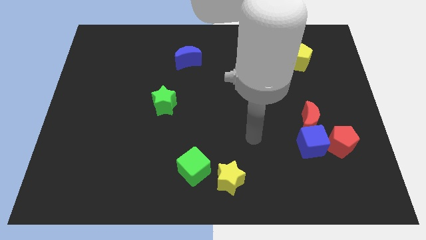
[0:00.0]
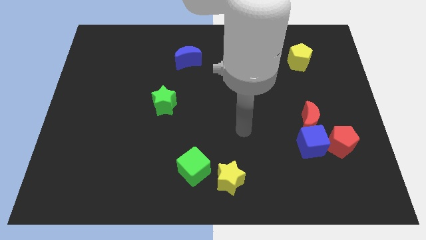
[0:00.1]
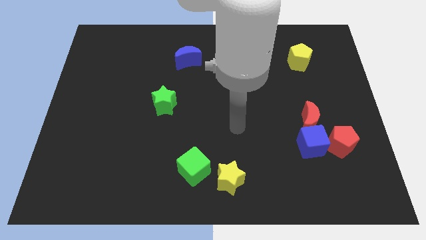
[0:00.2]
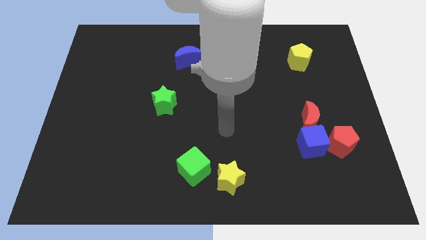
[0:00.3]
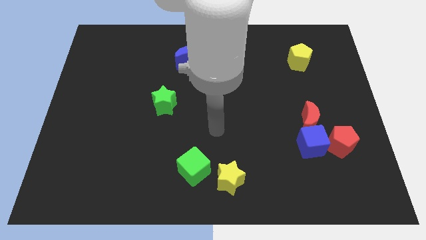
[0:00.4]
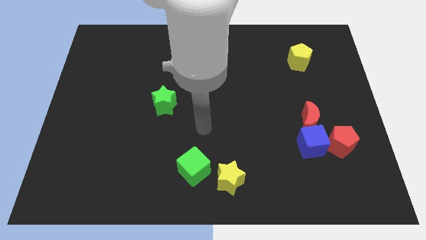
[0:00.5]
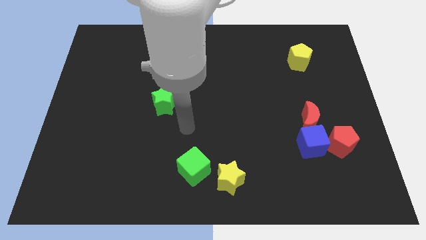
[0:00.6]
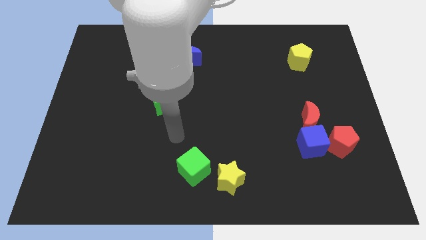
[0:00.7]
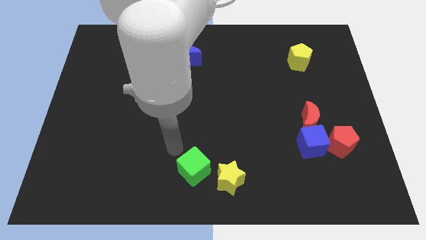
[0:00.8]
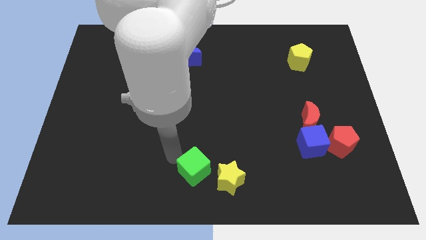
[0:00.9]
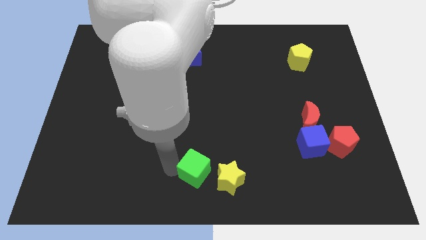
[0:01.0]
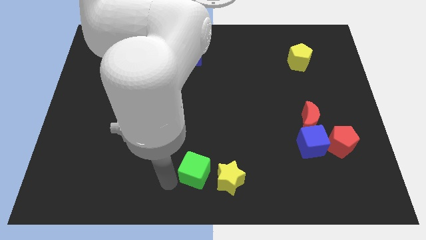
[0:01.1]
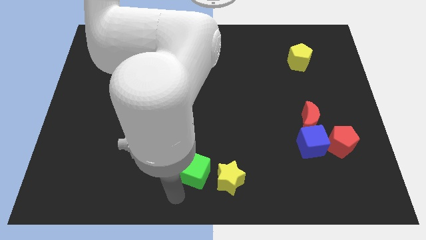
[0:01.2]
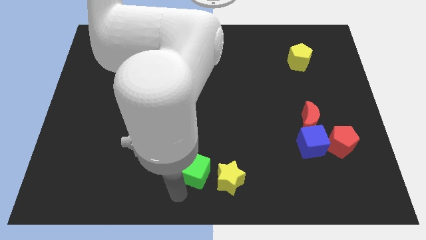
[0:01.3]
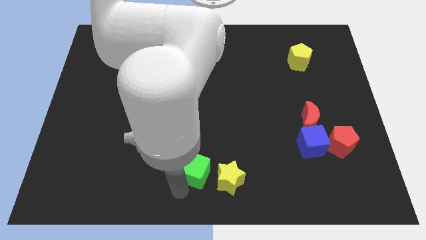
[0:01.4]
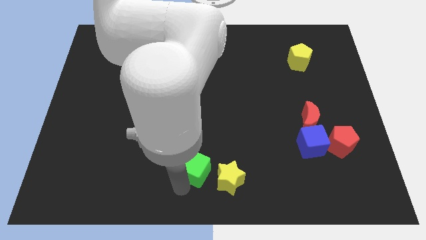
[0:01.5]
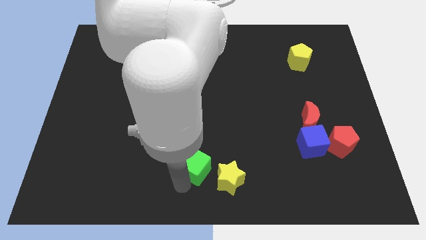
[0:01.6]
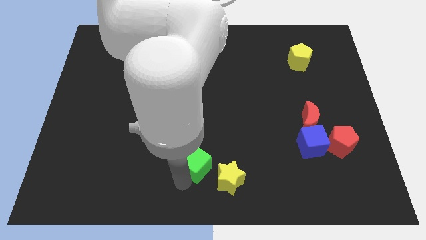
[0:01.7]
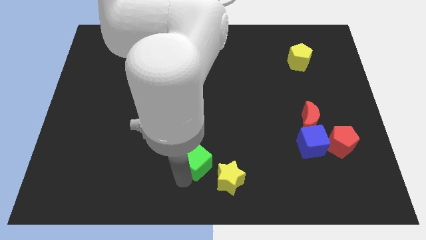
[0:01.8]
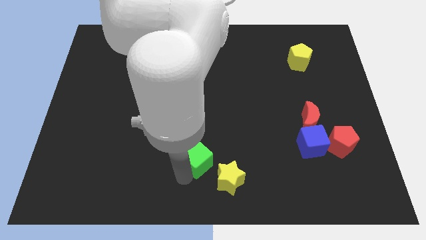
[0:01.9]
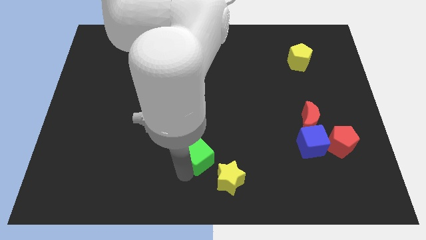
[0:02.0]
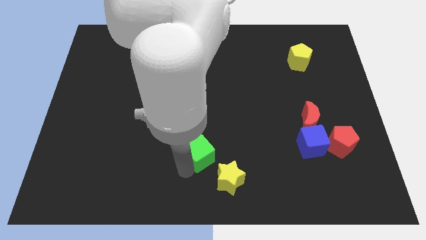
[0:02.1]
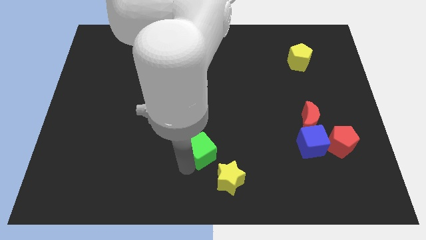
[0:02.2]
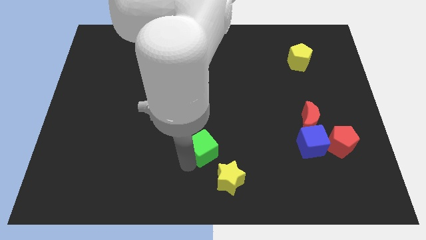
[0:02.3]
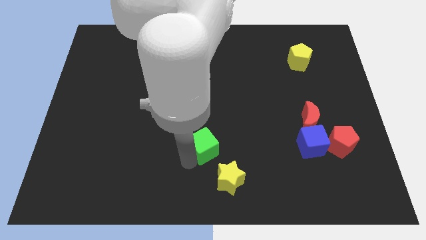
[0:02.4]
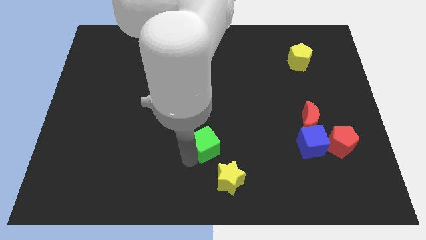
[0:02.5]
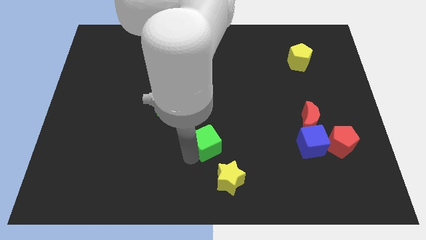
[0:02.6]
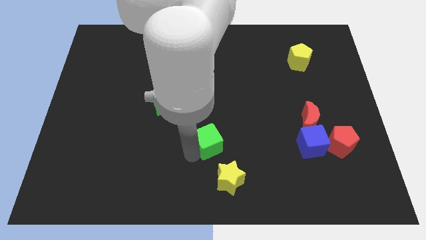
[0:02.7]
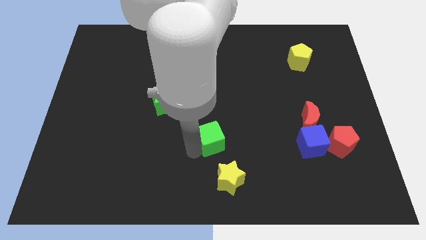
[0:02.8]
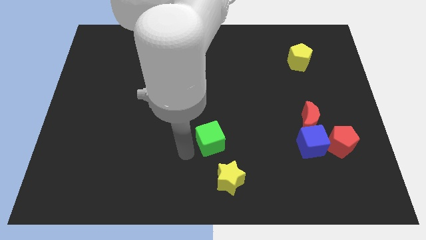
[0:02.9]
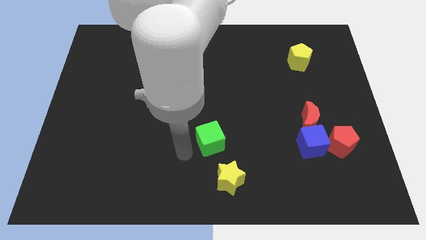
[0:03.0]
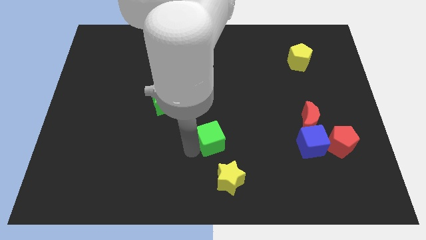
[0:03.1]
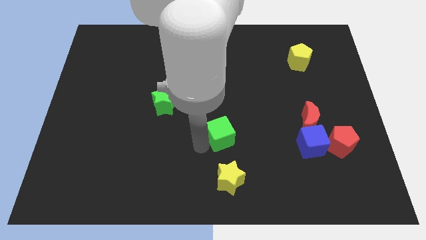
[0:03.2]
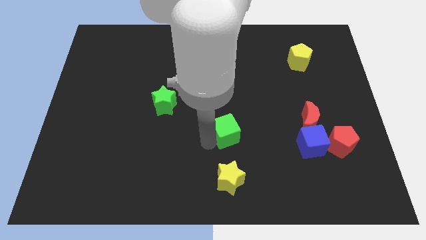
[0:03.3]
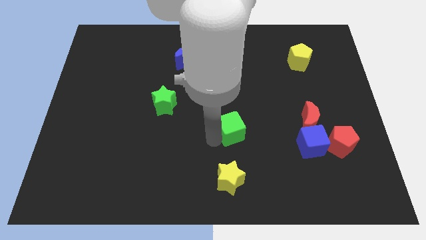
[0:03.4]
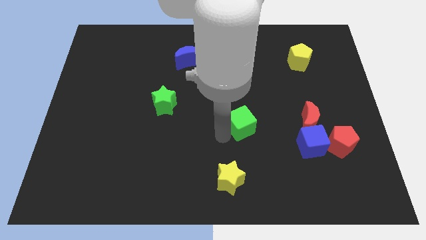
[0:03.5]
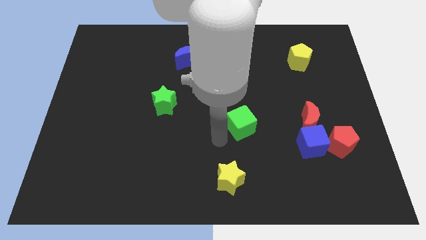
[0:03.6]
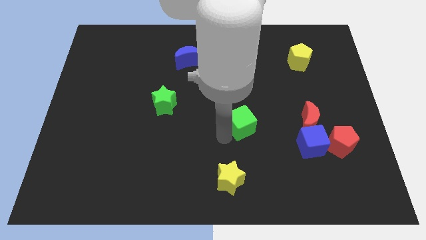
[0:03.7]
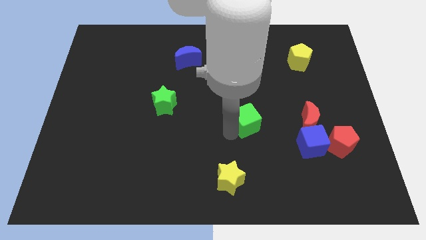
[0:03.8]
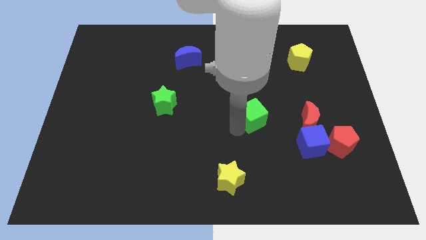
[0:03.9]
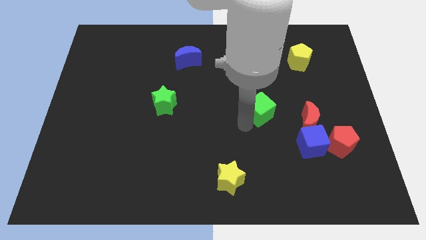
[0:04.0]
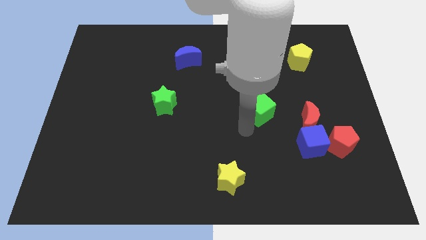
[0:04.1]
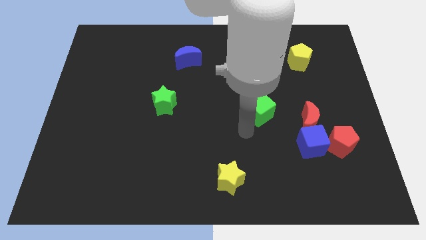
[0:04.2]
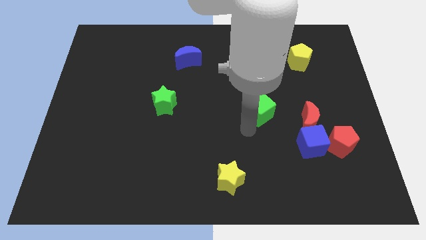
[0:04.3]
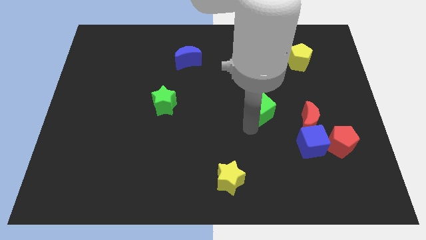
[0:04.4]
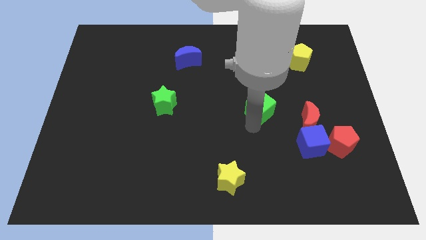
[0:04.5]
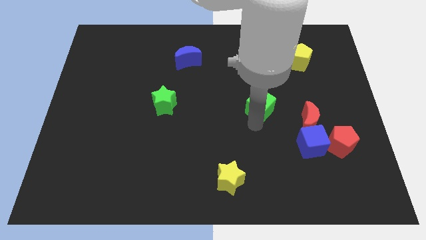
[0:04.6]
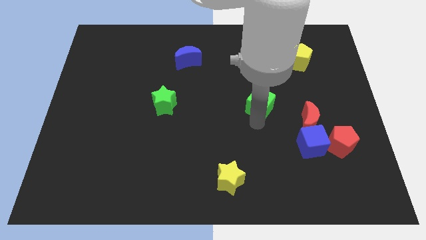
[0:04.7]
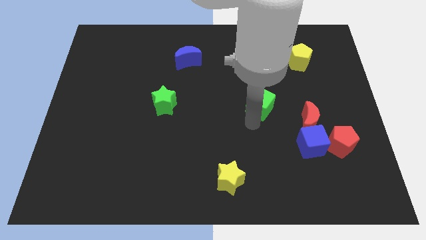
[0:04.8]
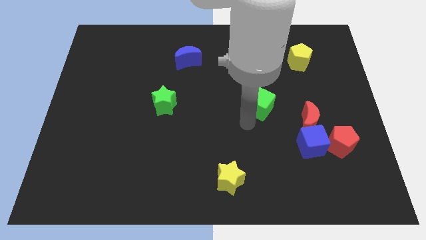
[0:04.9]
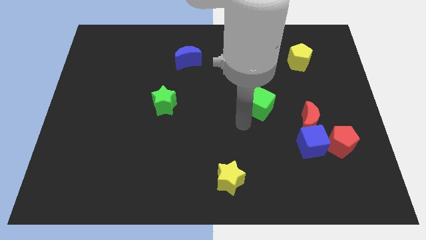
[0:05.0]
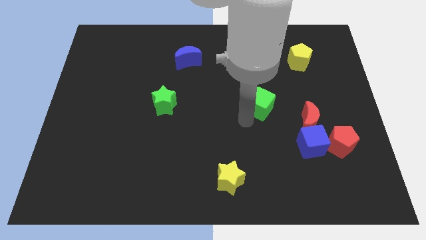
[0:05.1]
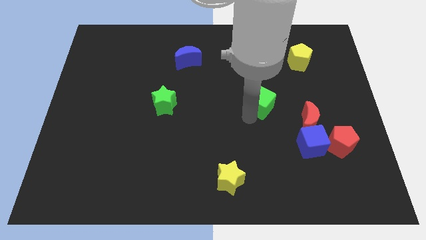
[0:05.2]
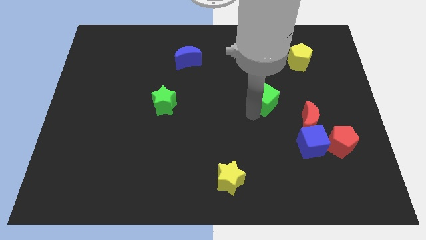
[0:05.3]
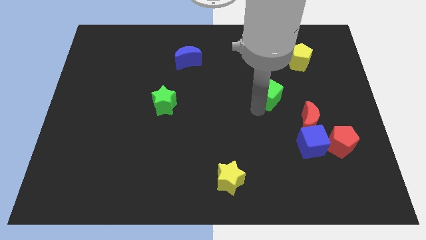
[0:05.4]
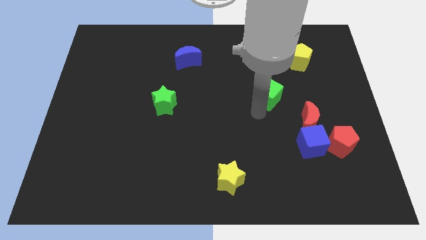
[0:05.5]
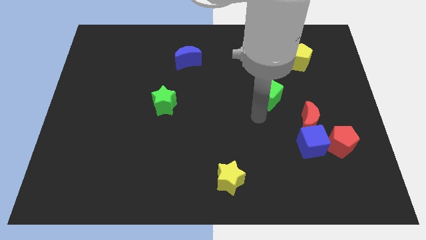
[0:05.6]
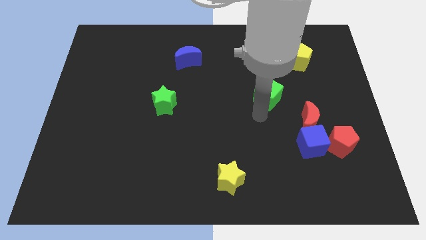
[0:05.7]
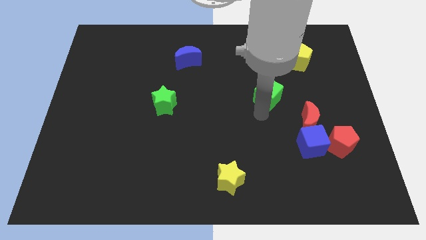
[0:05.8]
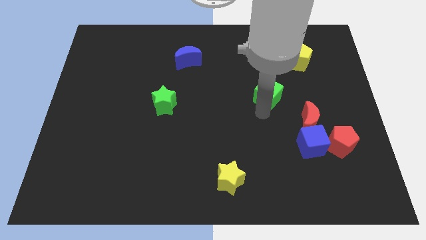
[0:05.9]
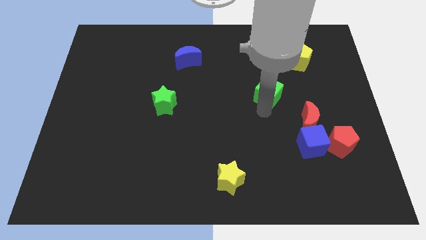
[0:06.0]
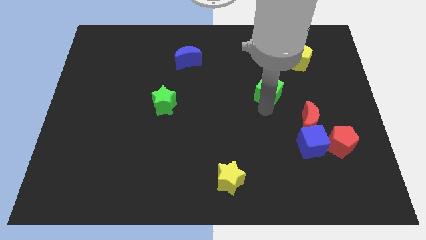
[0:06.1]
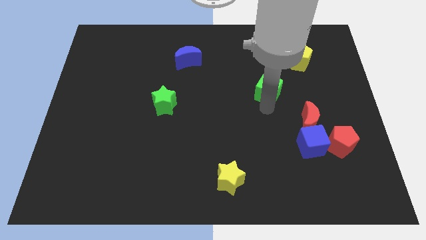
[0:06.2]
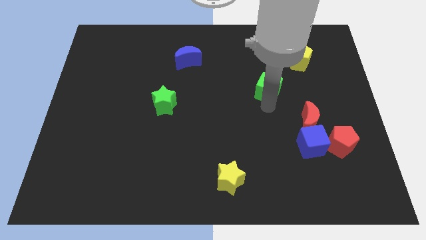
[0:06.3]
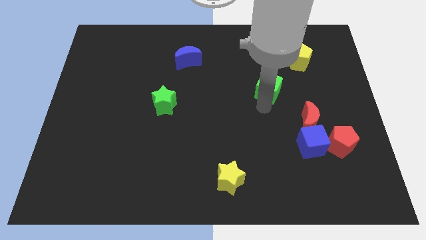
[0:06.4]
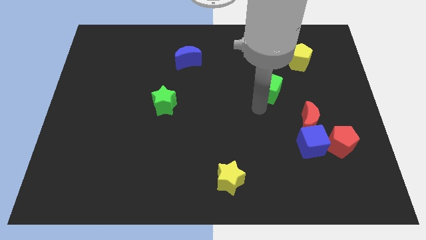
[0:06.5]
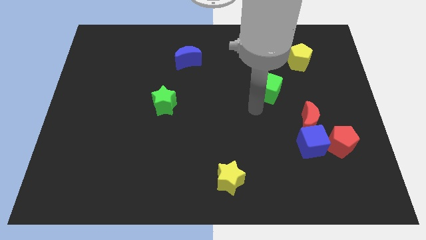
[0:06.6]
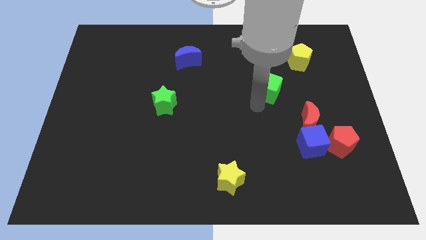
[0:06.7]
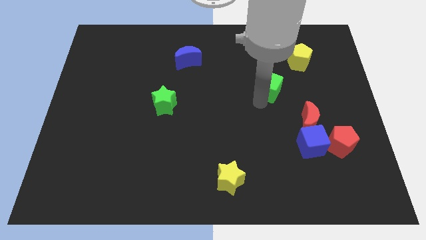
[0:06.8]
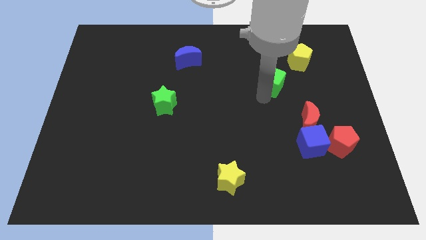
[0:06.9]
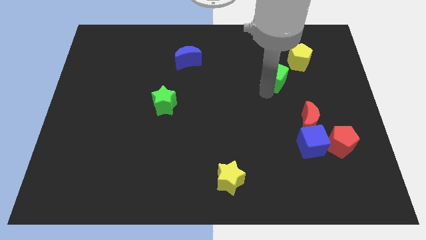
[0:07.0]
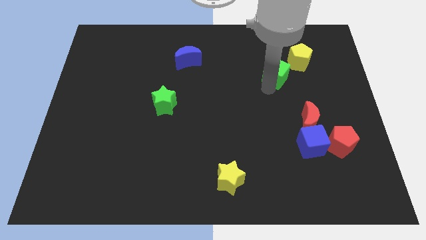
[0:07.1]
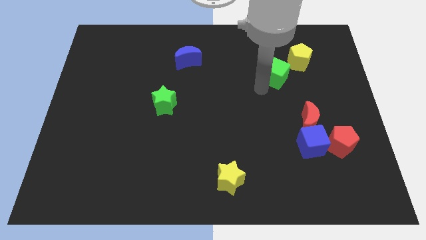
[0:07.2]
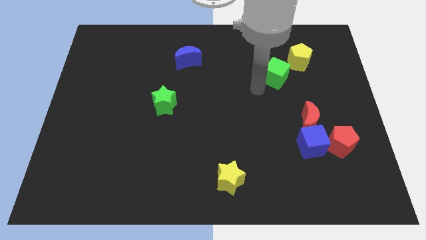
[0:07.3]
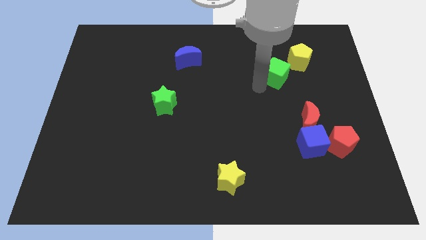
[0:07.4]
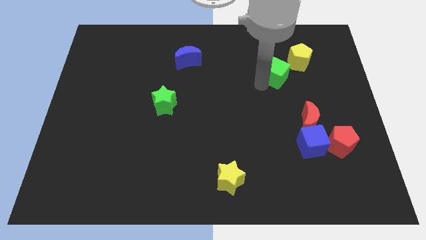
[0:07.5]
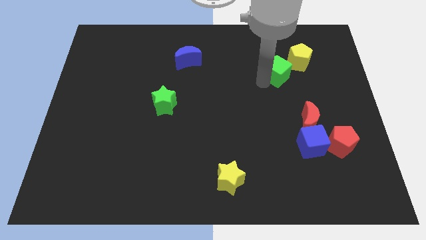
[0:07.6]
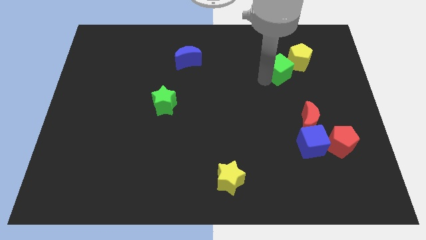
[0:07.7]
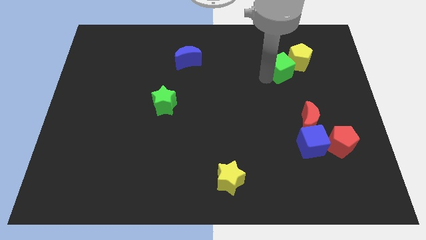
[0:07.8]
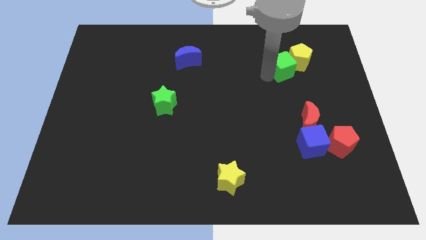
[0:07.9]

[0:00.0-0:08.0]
move the green cube close to the yellow pentagon
